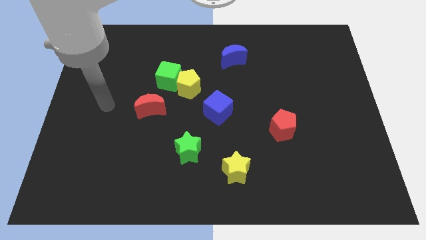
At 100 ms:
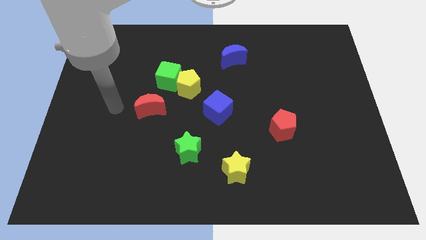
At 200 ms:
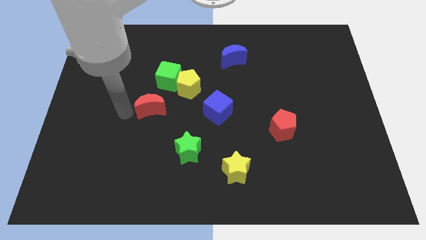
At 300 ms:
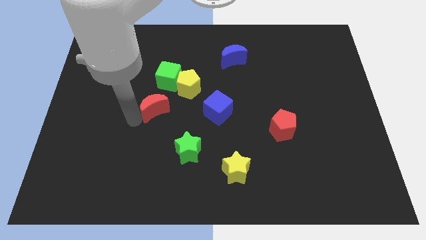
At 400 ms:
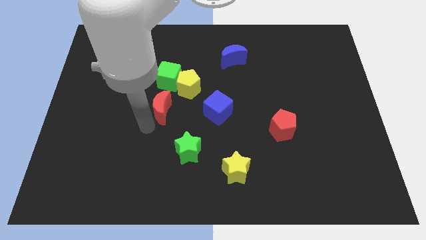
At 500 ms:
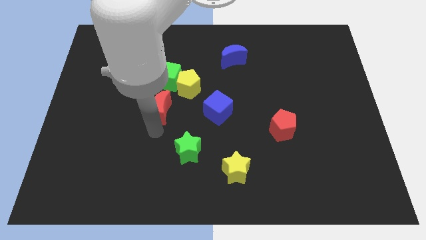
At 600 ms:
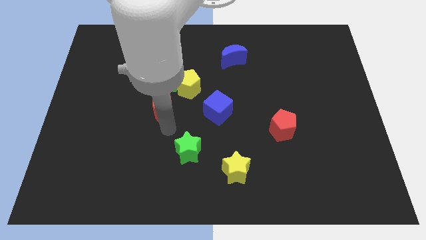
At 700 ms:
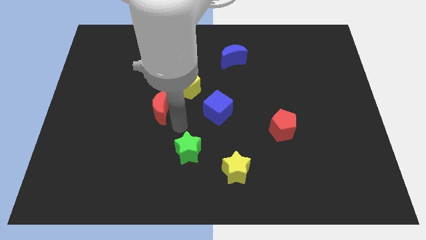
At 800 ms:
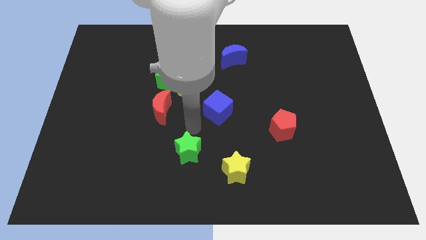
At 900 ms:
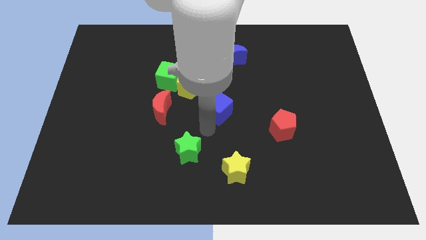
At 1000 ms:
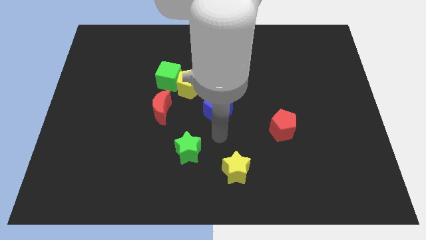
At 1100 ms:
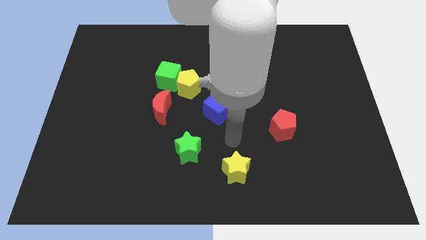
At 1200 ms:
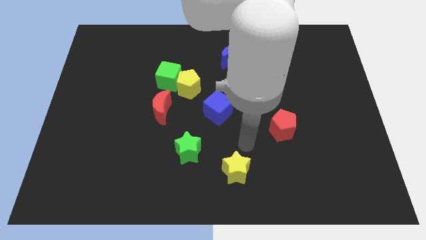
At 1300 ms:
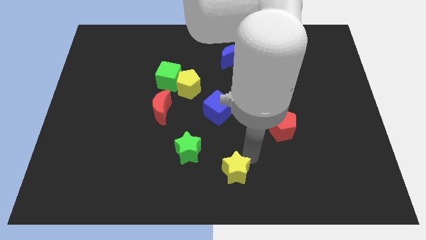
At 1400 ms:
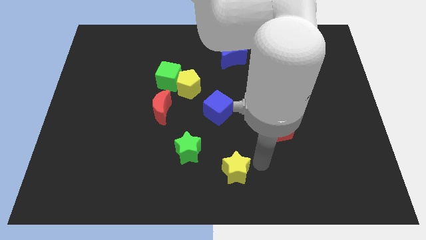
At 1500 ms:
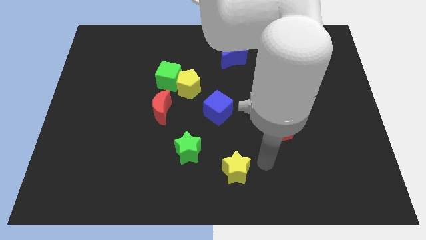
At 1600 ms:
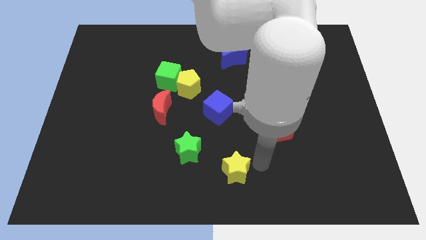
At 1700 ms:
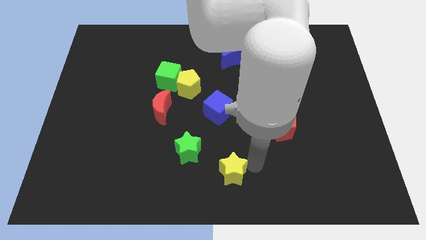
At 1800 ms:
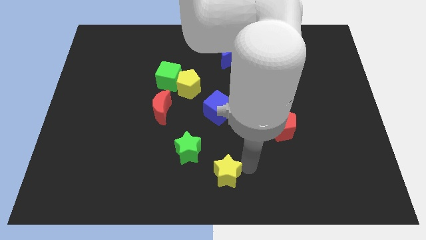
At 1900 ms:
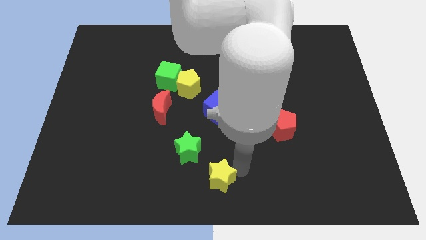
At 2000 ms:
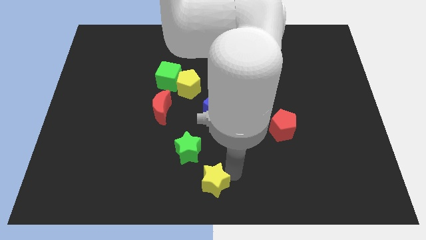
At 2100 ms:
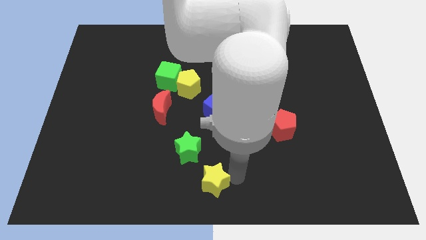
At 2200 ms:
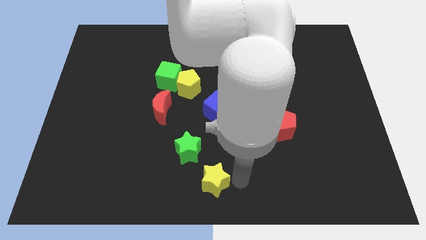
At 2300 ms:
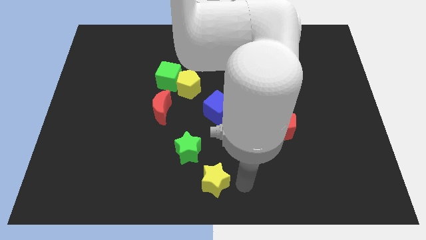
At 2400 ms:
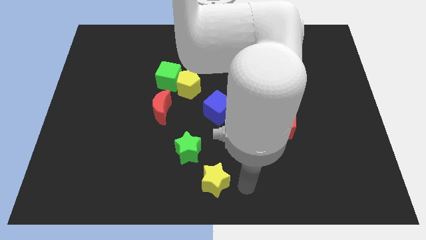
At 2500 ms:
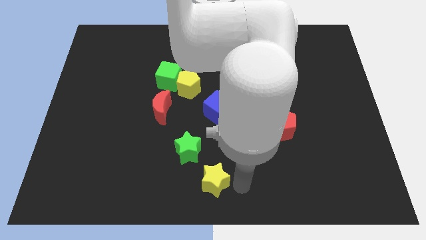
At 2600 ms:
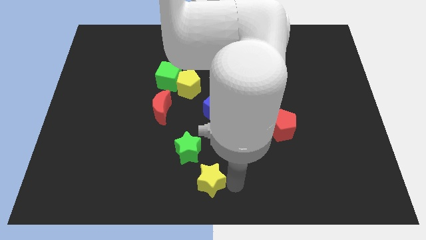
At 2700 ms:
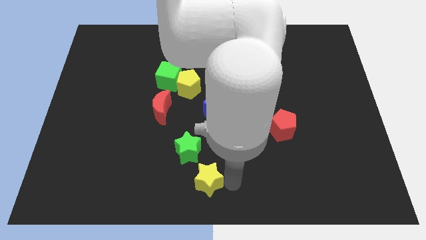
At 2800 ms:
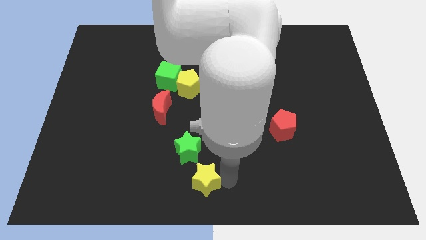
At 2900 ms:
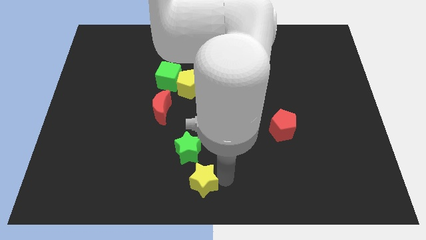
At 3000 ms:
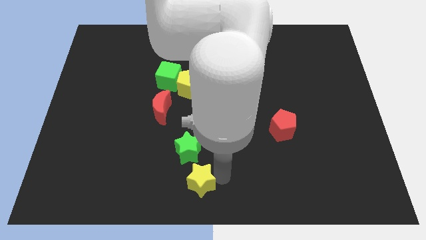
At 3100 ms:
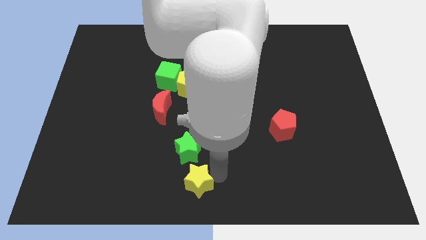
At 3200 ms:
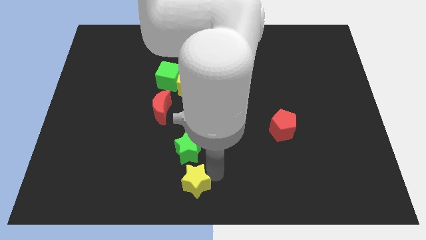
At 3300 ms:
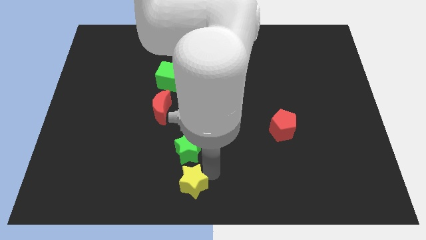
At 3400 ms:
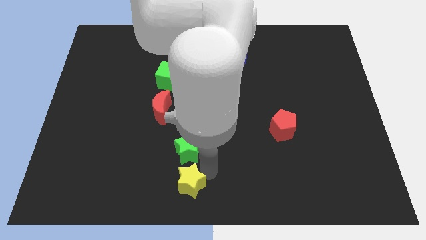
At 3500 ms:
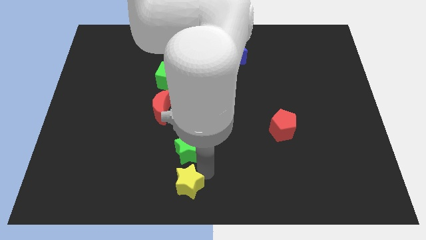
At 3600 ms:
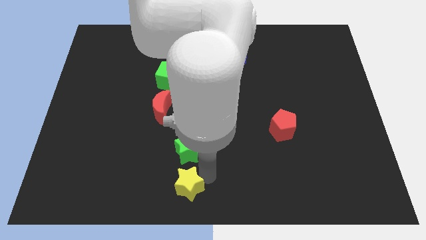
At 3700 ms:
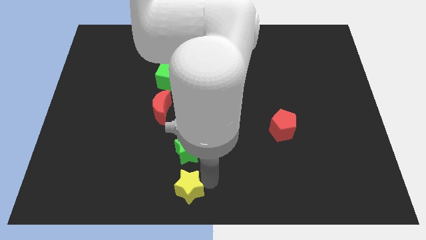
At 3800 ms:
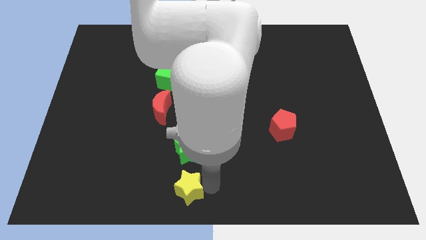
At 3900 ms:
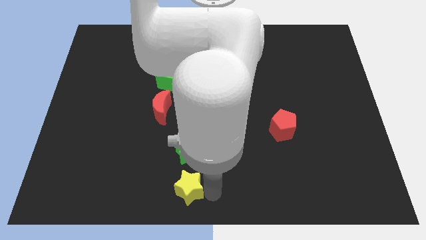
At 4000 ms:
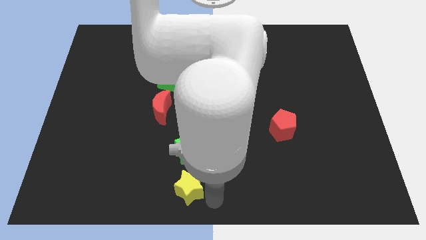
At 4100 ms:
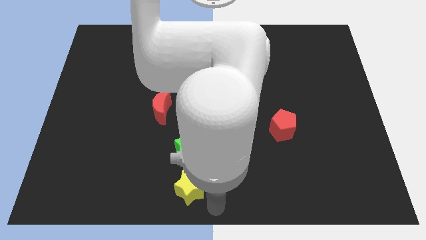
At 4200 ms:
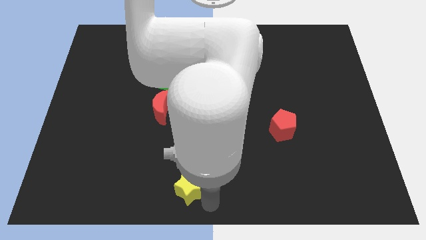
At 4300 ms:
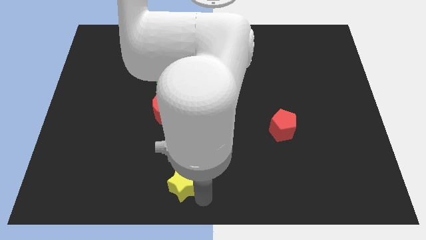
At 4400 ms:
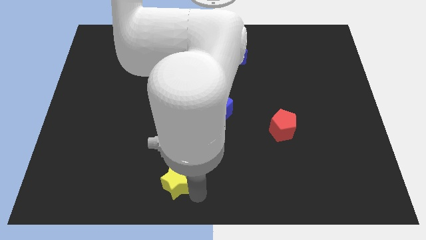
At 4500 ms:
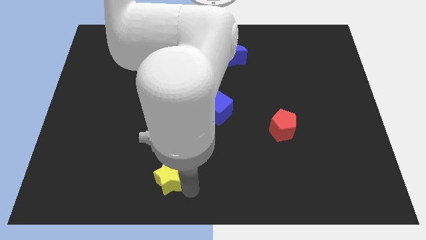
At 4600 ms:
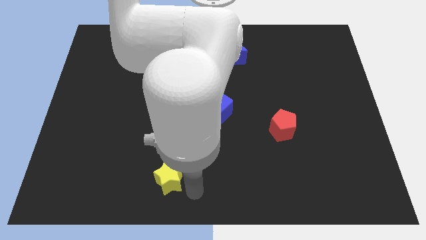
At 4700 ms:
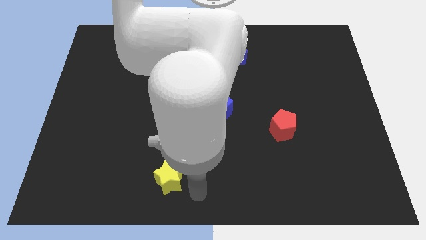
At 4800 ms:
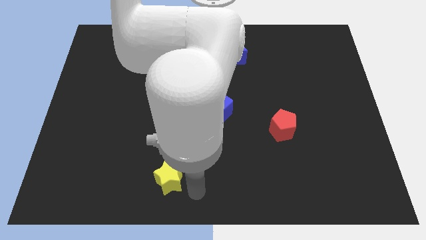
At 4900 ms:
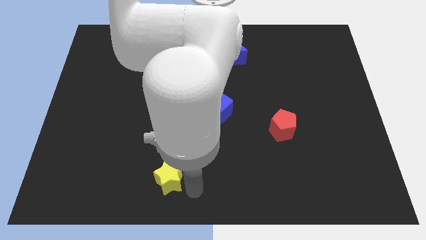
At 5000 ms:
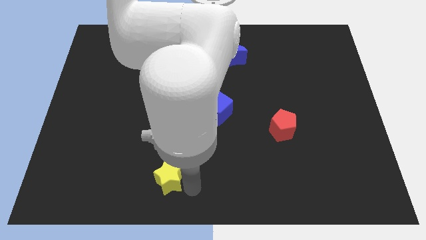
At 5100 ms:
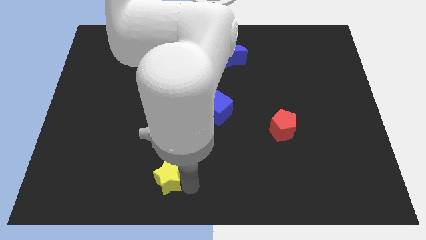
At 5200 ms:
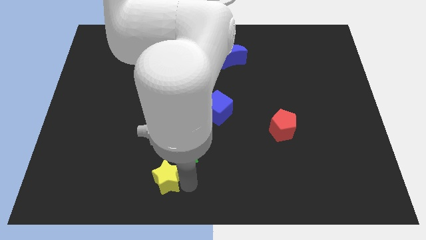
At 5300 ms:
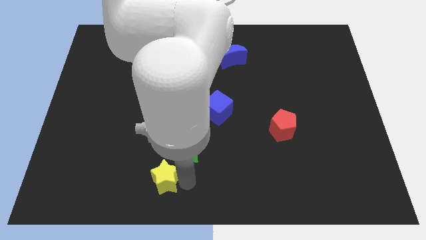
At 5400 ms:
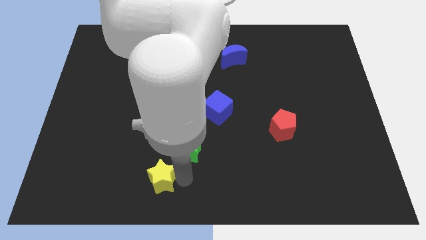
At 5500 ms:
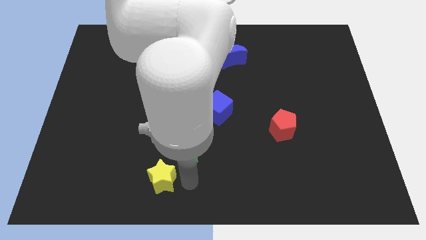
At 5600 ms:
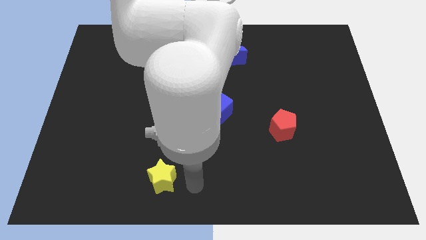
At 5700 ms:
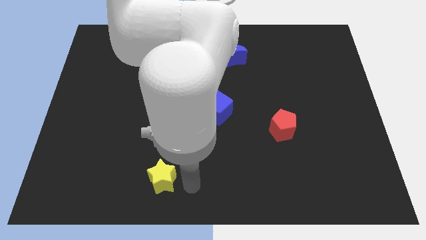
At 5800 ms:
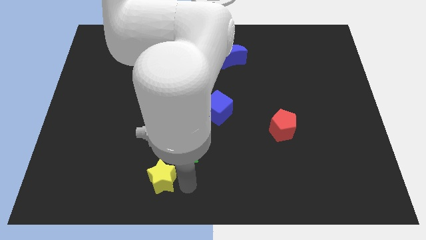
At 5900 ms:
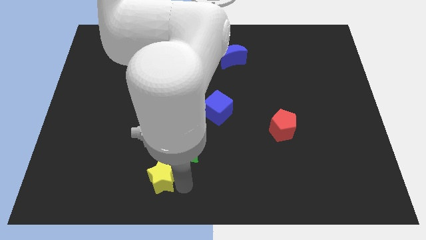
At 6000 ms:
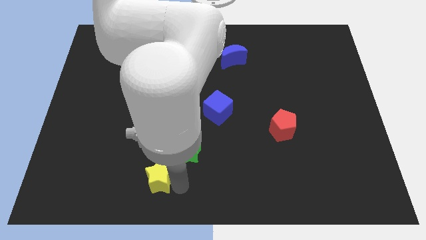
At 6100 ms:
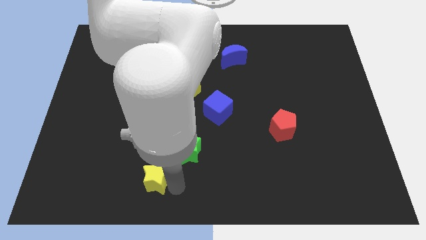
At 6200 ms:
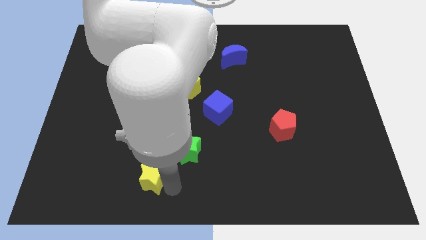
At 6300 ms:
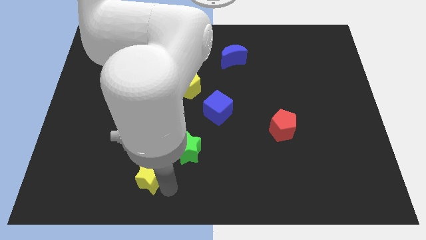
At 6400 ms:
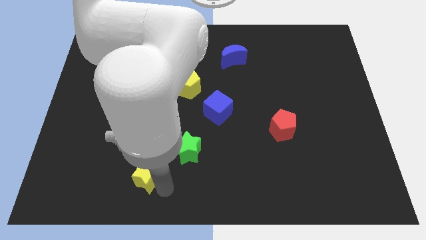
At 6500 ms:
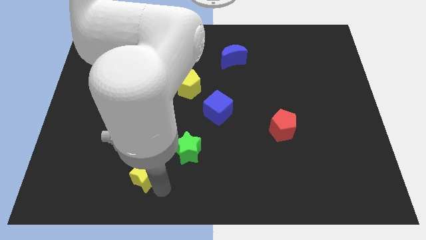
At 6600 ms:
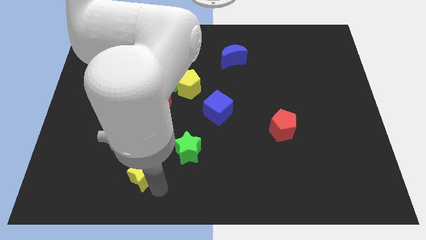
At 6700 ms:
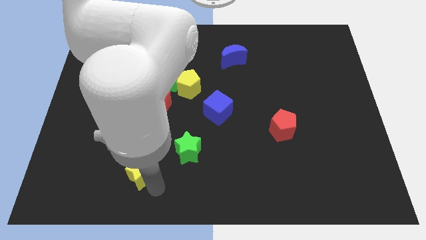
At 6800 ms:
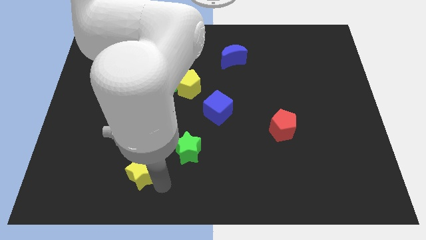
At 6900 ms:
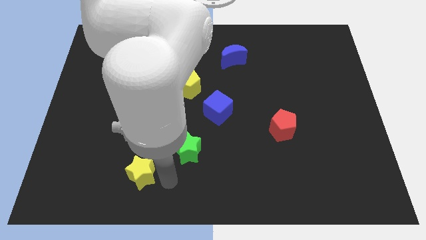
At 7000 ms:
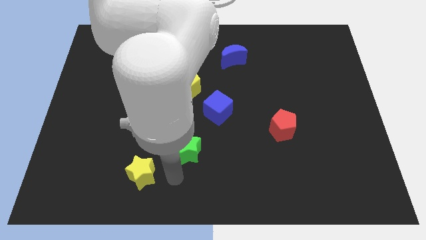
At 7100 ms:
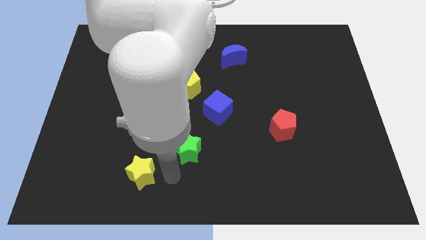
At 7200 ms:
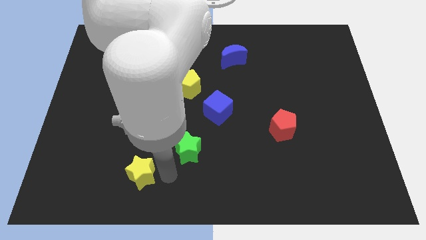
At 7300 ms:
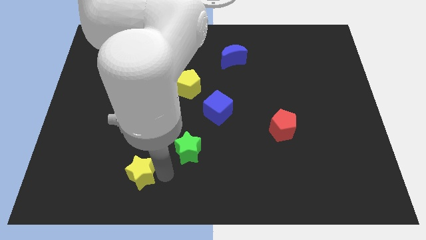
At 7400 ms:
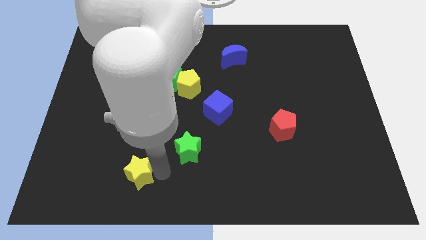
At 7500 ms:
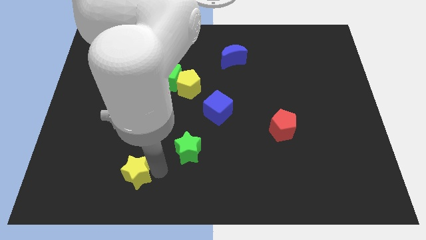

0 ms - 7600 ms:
slide the yellow star left

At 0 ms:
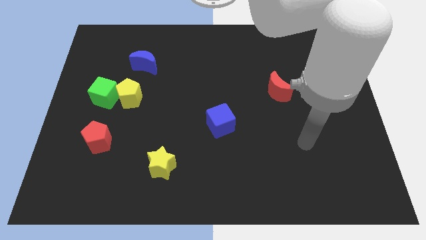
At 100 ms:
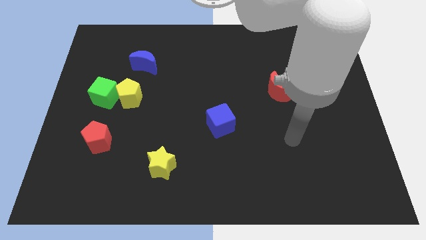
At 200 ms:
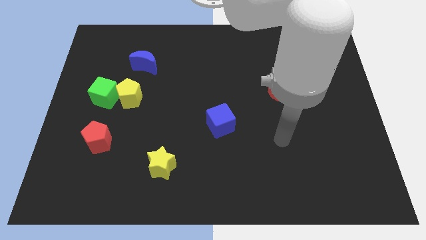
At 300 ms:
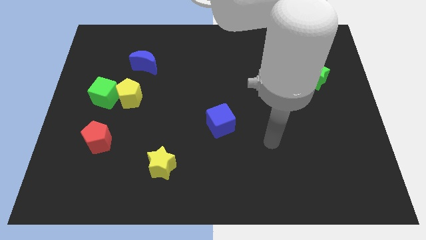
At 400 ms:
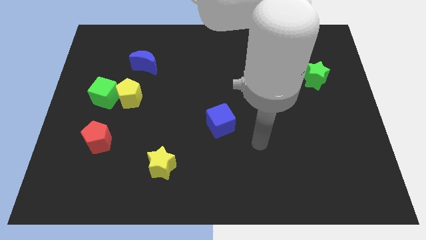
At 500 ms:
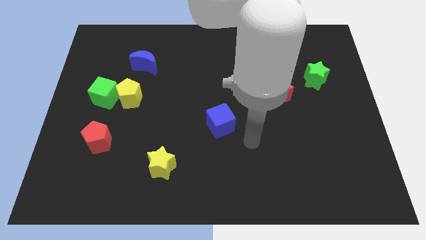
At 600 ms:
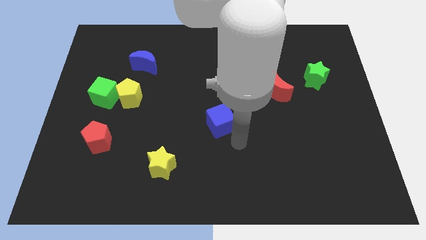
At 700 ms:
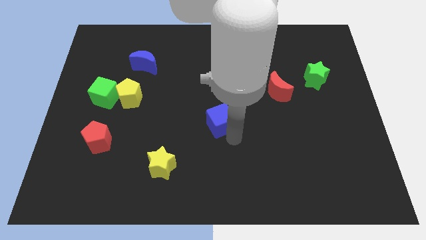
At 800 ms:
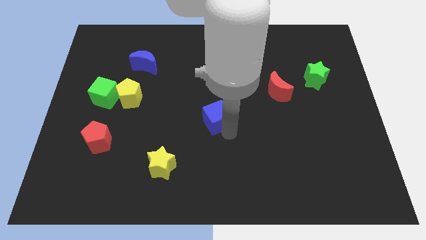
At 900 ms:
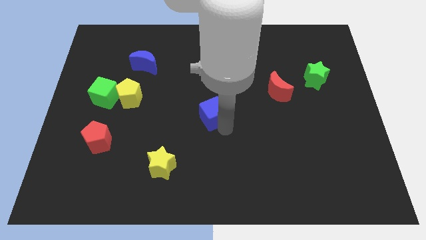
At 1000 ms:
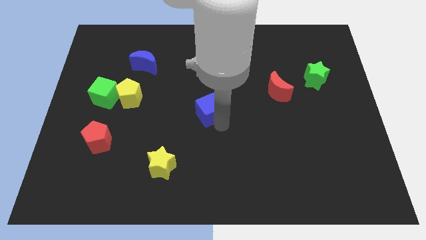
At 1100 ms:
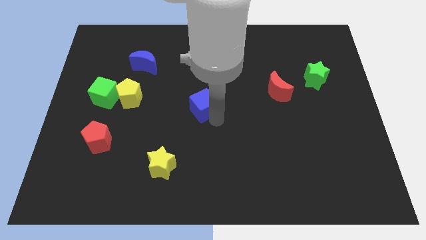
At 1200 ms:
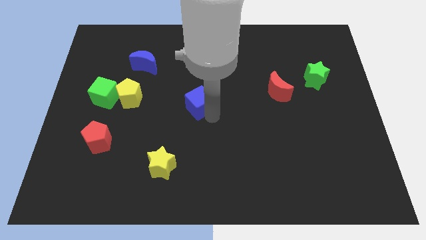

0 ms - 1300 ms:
slightly slide the blue cube upwards and left
